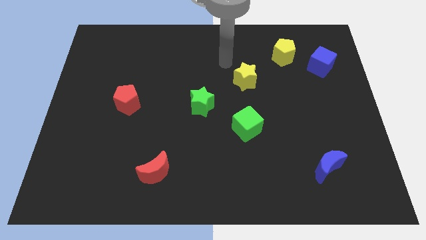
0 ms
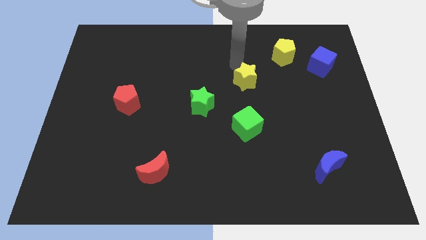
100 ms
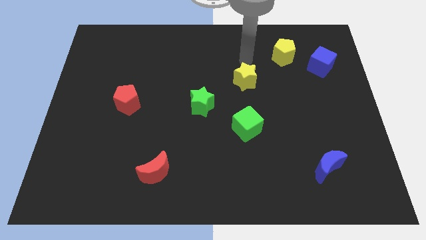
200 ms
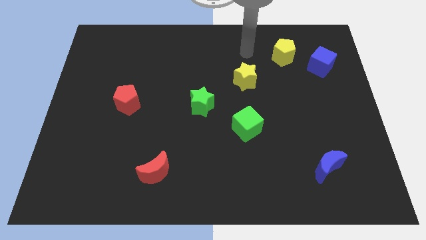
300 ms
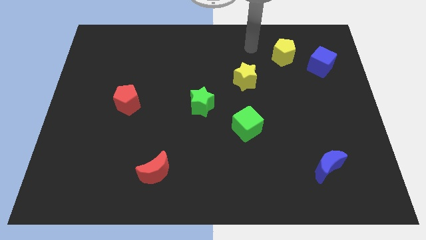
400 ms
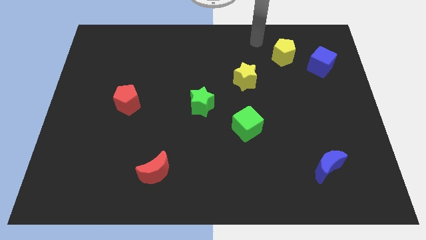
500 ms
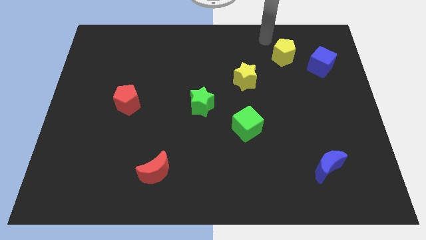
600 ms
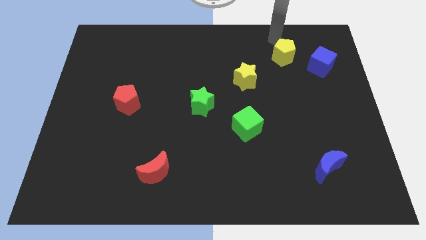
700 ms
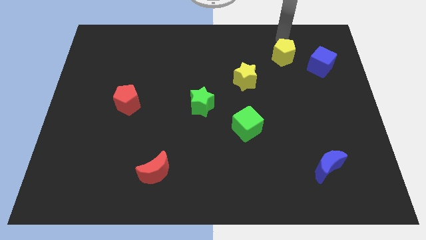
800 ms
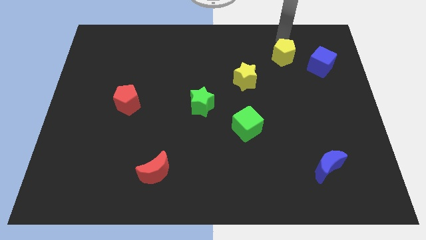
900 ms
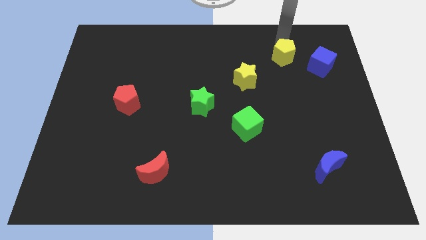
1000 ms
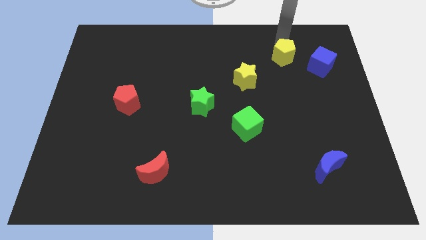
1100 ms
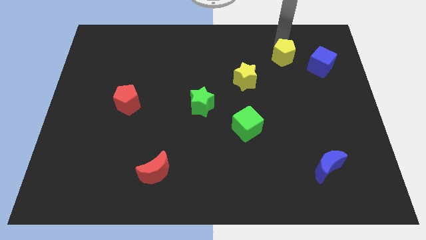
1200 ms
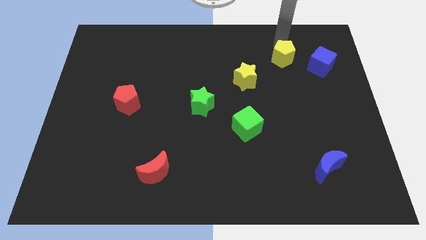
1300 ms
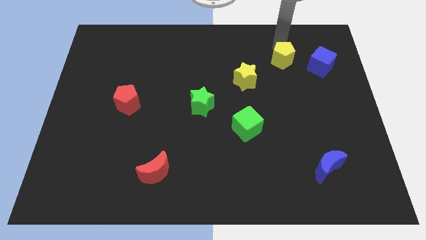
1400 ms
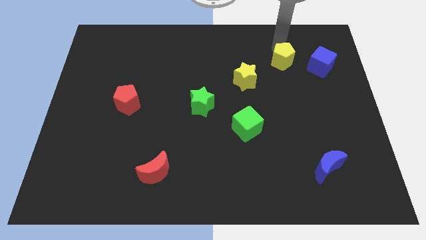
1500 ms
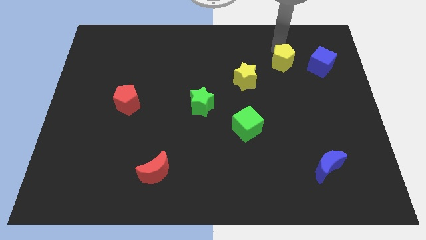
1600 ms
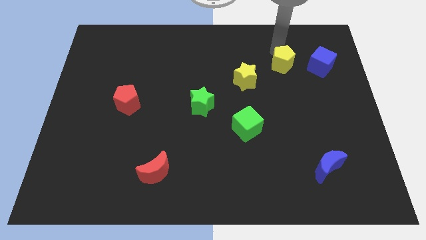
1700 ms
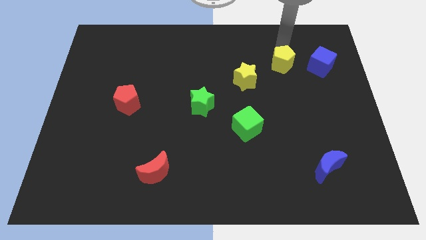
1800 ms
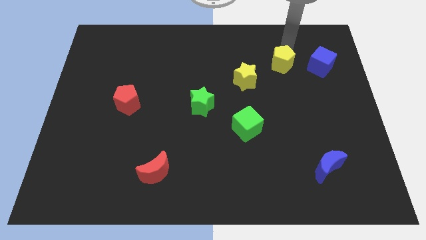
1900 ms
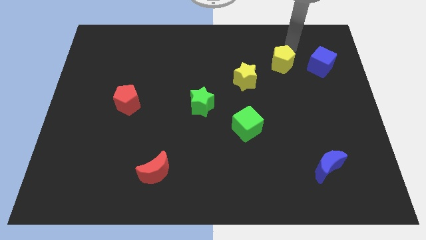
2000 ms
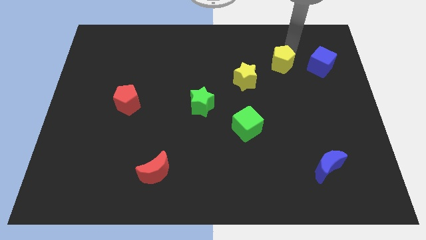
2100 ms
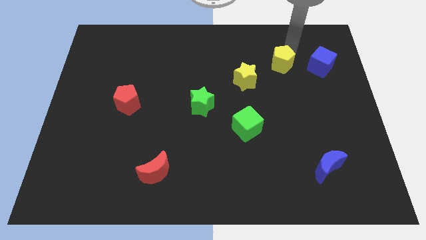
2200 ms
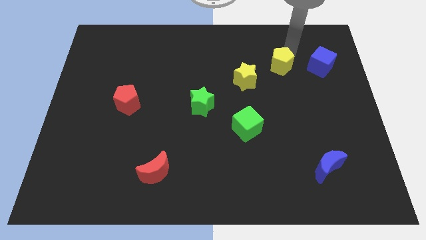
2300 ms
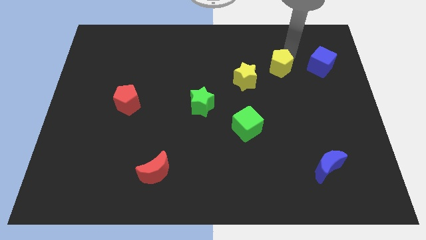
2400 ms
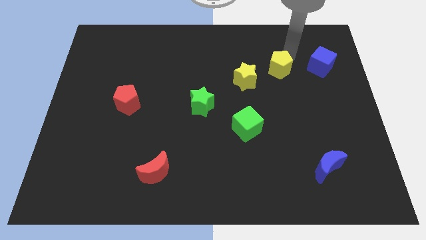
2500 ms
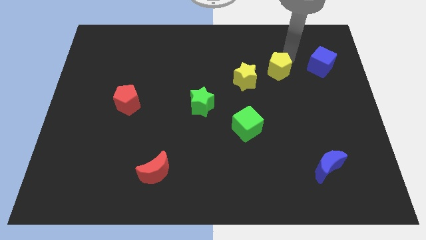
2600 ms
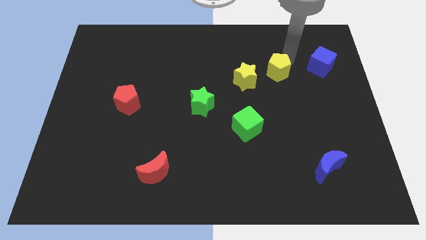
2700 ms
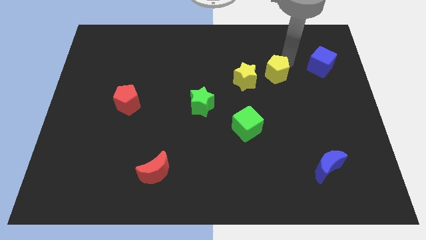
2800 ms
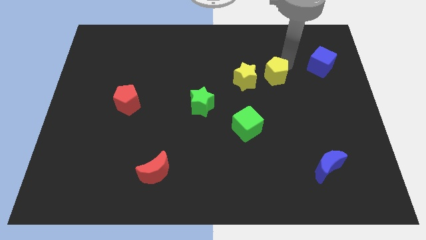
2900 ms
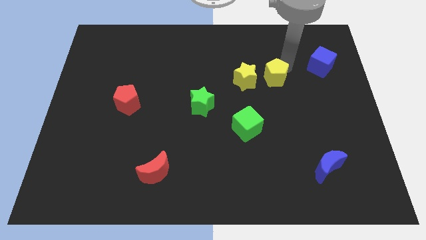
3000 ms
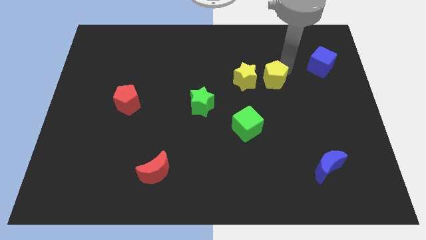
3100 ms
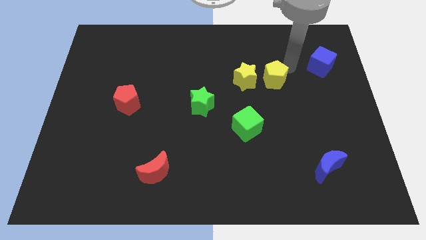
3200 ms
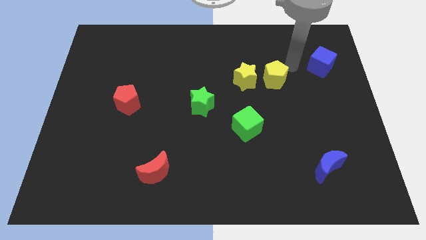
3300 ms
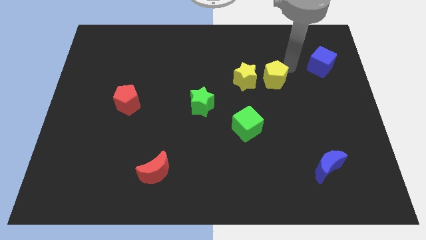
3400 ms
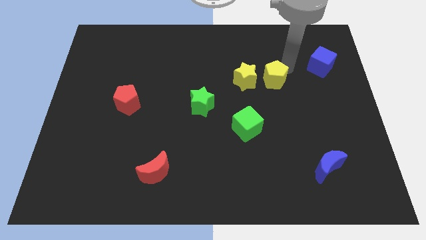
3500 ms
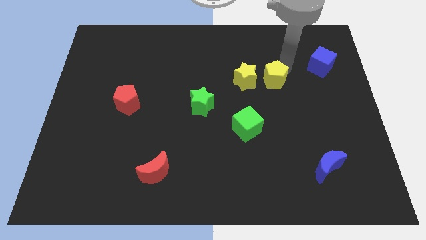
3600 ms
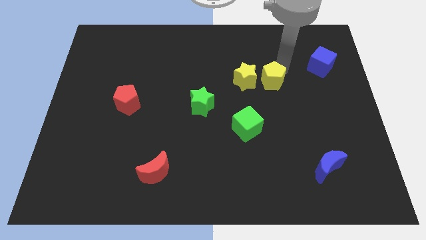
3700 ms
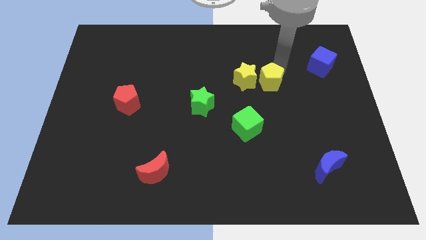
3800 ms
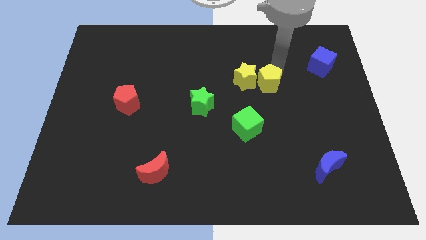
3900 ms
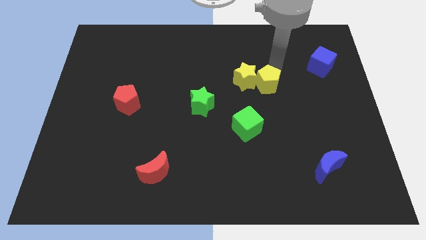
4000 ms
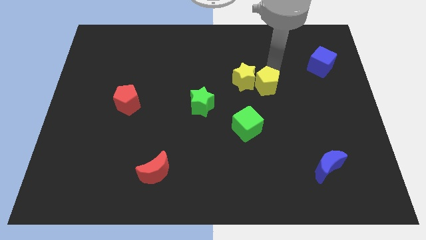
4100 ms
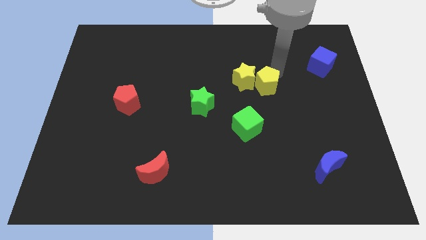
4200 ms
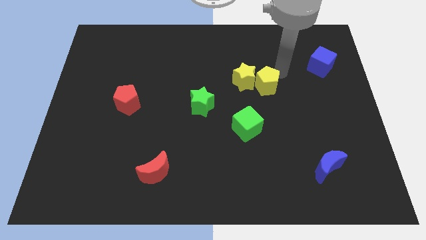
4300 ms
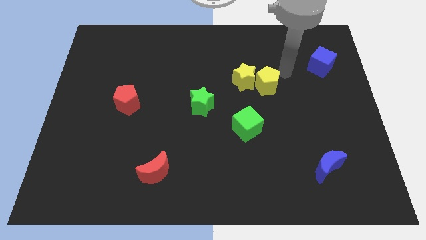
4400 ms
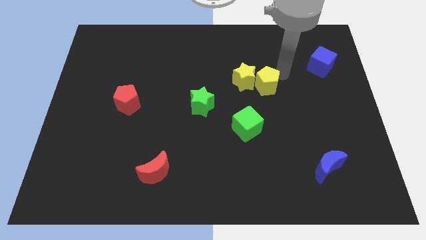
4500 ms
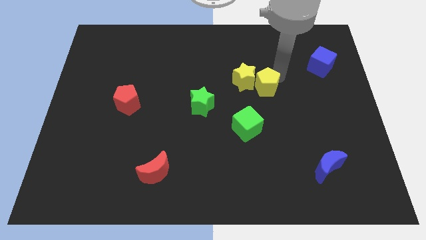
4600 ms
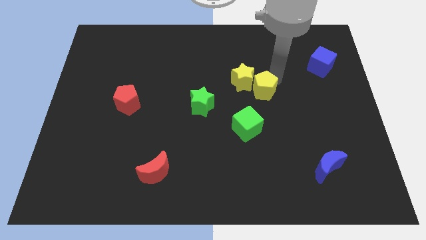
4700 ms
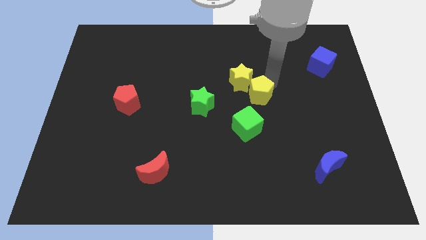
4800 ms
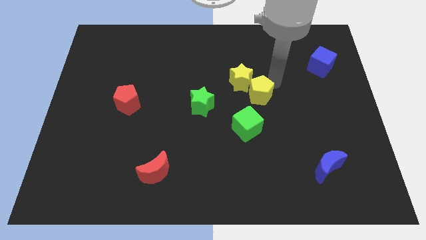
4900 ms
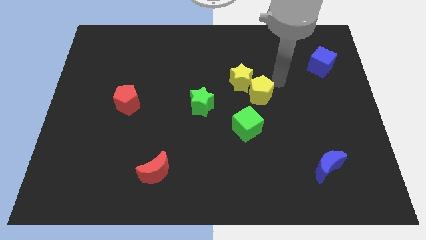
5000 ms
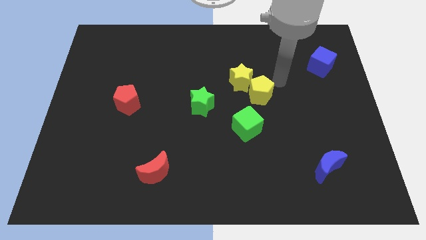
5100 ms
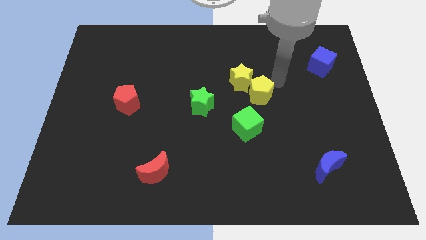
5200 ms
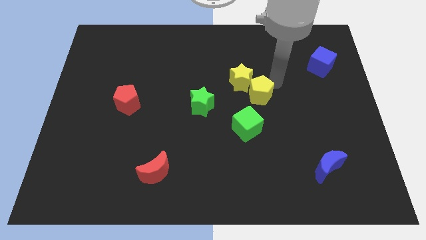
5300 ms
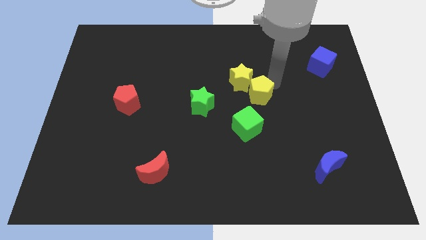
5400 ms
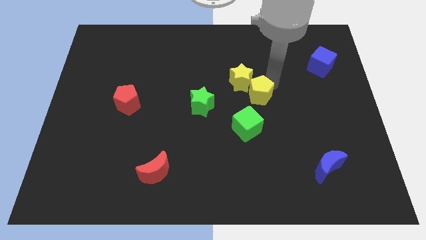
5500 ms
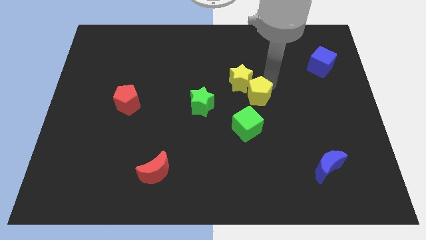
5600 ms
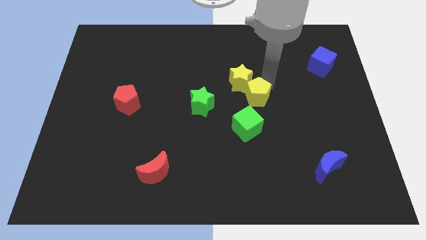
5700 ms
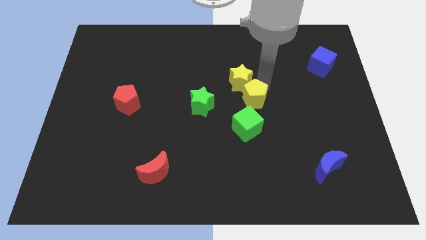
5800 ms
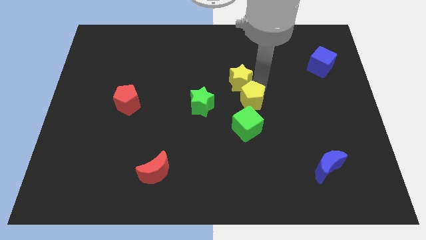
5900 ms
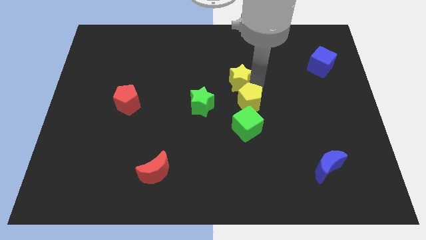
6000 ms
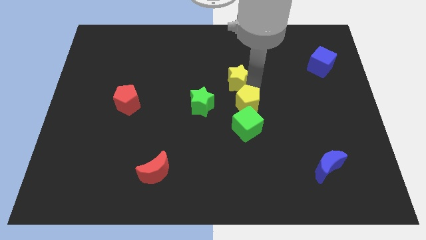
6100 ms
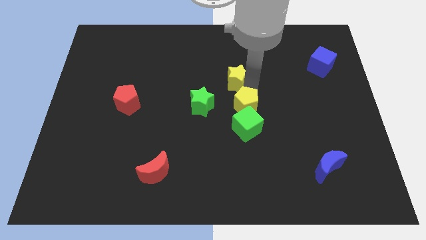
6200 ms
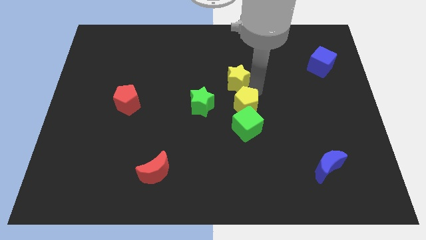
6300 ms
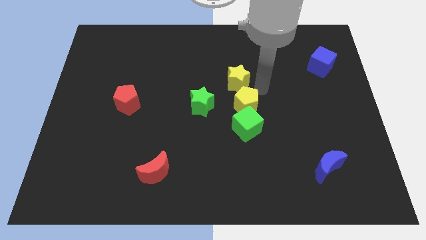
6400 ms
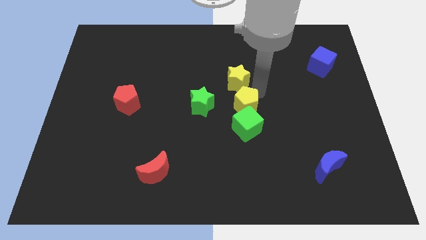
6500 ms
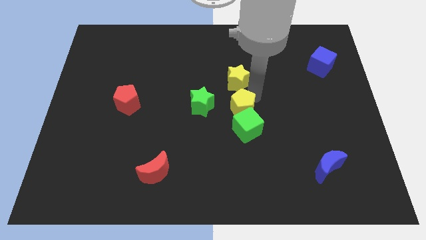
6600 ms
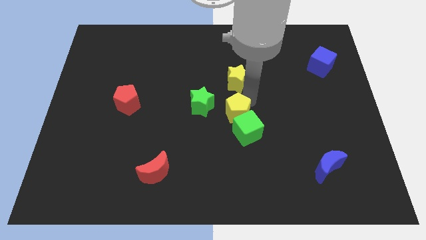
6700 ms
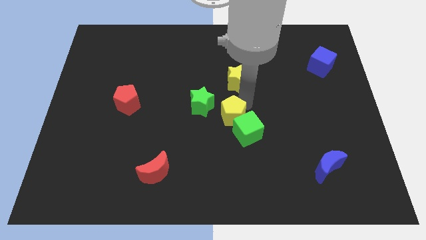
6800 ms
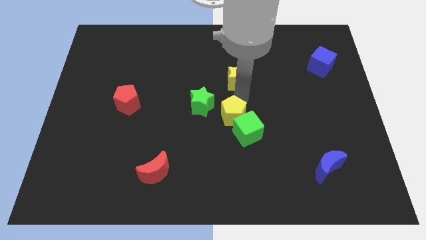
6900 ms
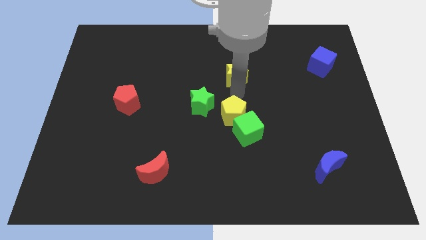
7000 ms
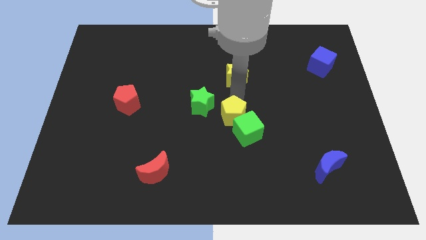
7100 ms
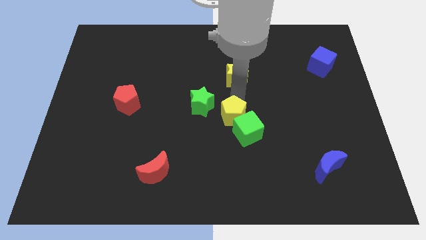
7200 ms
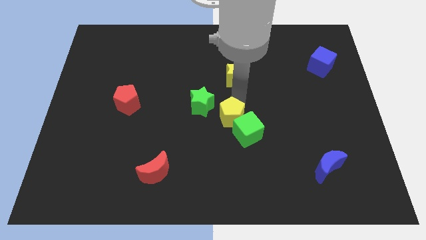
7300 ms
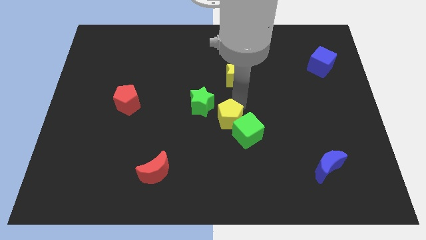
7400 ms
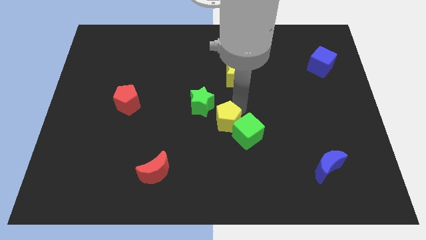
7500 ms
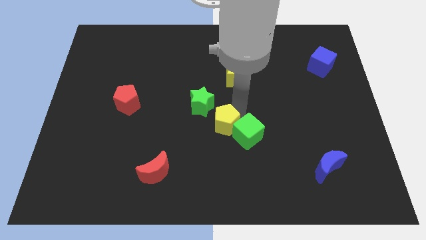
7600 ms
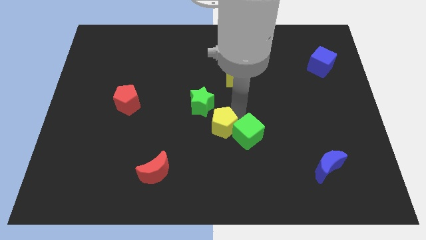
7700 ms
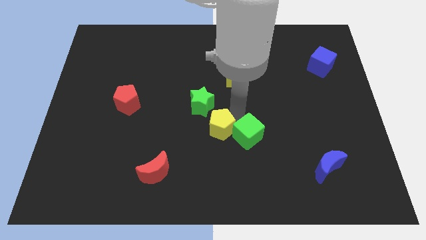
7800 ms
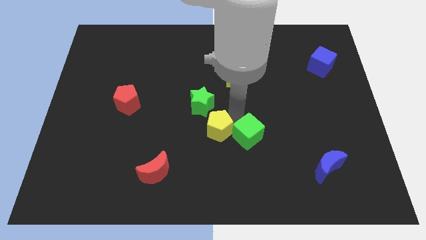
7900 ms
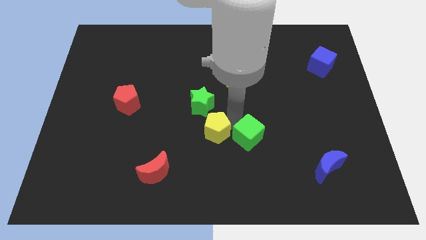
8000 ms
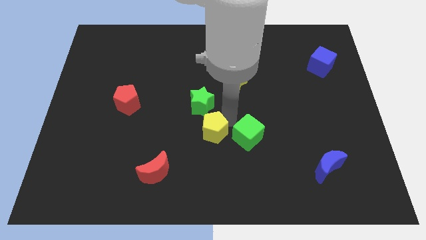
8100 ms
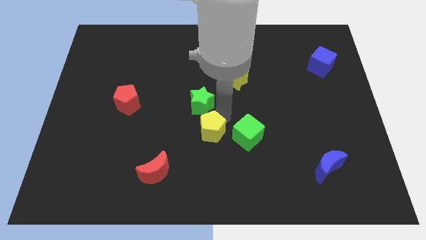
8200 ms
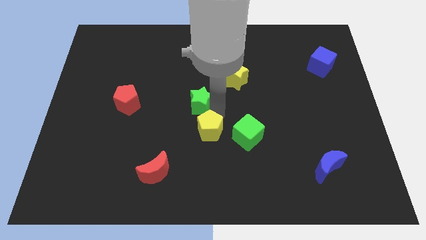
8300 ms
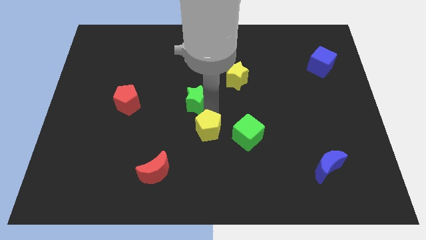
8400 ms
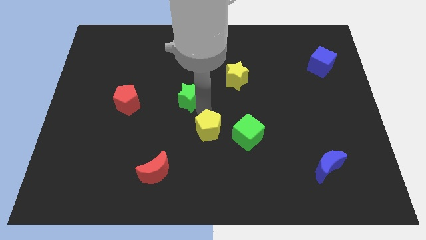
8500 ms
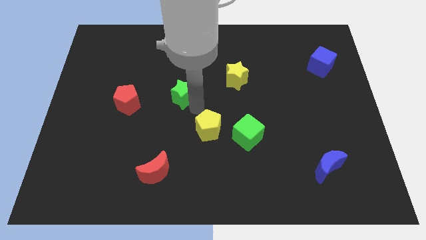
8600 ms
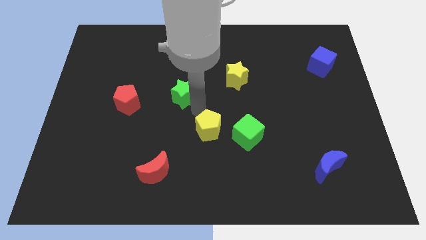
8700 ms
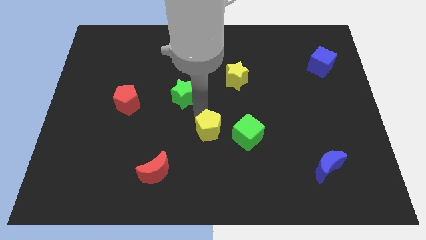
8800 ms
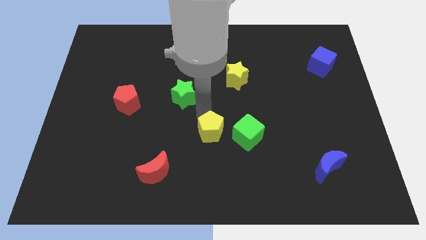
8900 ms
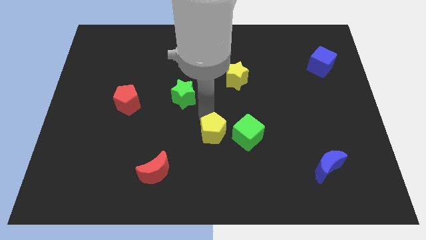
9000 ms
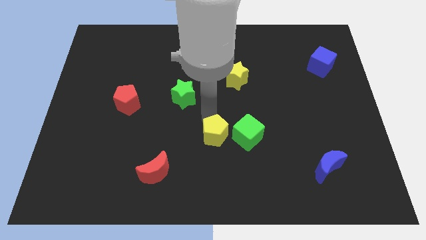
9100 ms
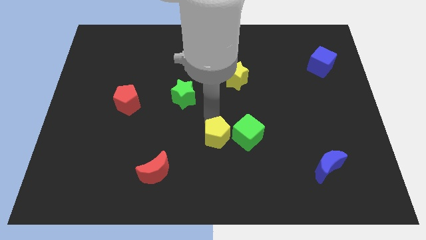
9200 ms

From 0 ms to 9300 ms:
slide the yellow pentagon diagonally down and to the left of the green cube
